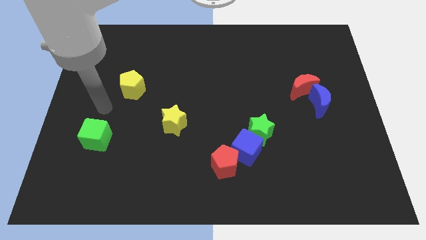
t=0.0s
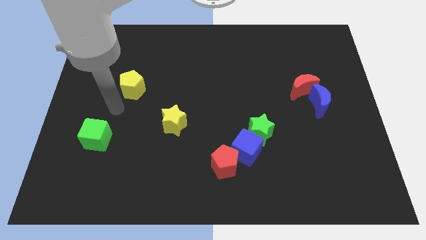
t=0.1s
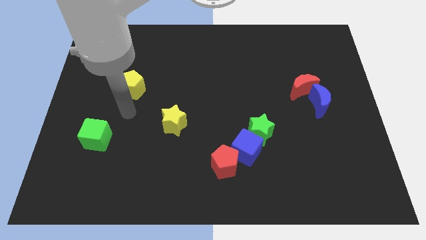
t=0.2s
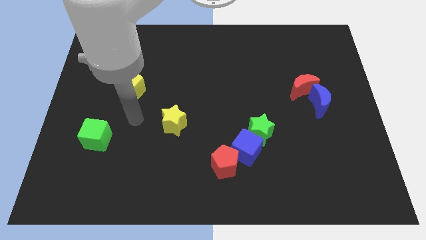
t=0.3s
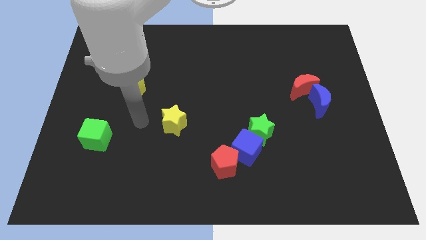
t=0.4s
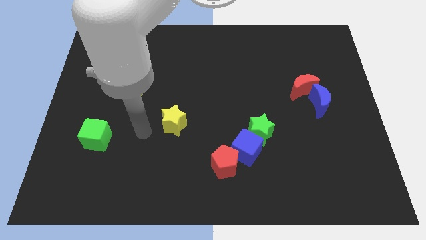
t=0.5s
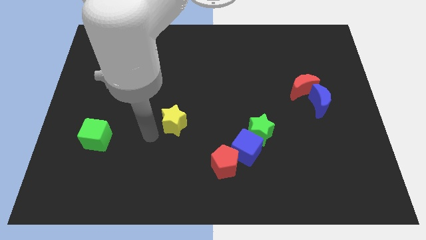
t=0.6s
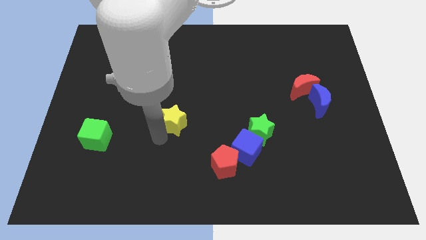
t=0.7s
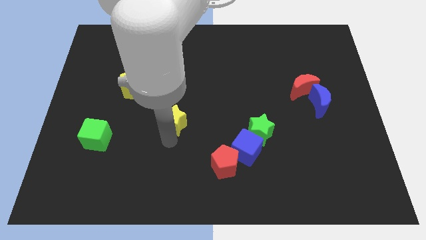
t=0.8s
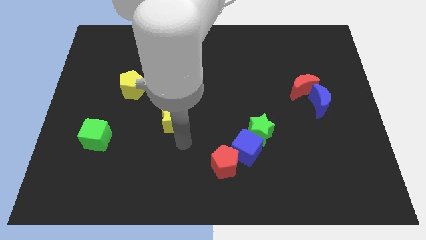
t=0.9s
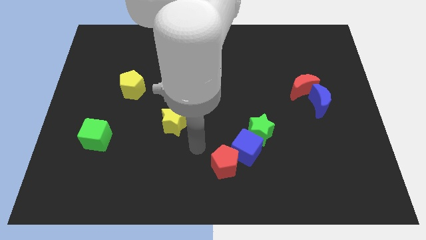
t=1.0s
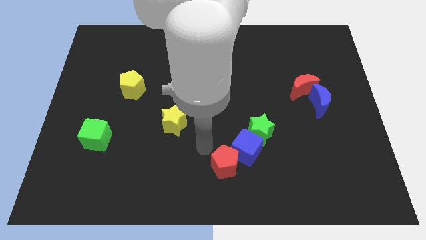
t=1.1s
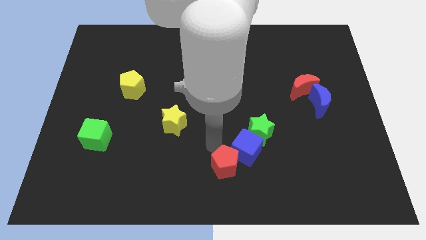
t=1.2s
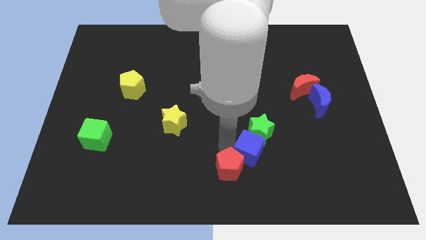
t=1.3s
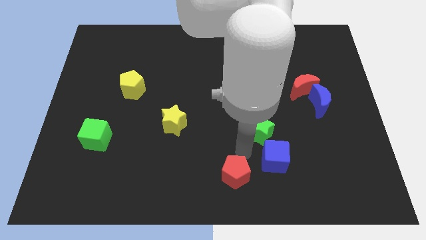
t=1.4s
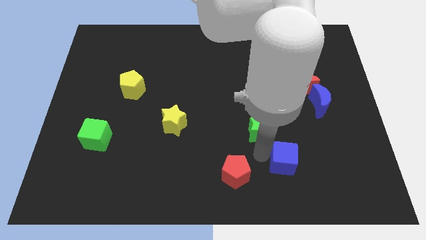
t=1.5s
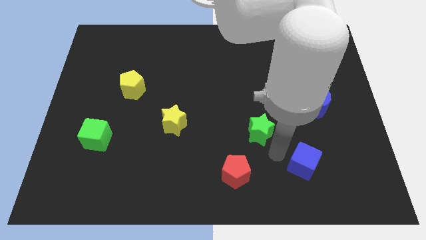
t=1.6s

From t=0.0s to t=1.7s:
separate the green star from the blue cube

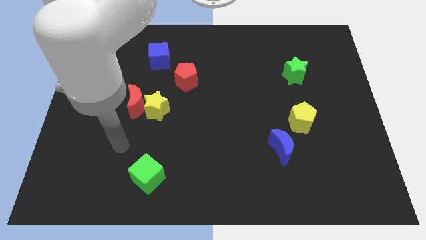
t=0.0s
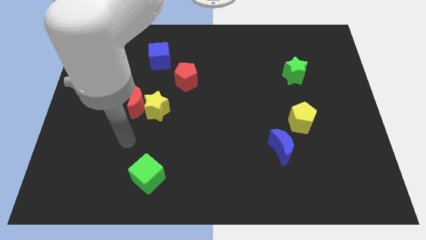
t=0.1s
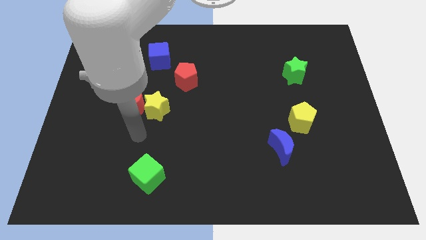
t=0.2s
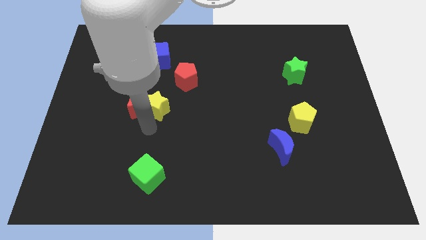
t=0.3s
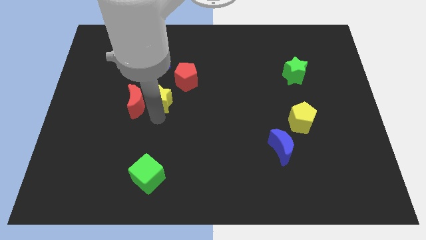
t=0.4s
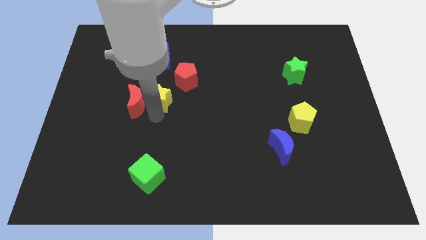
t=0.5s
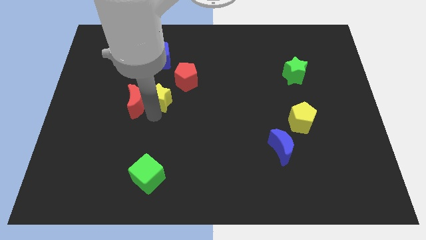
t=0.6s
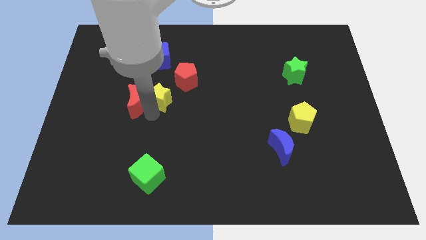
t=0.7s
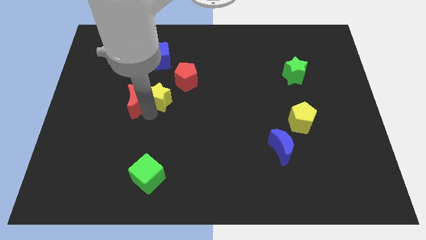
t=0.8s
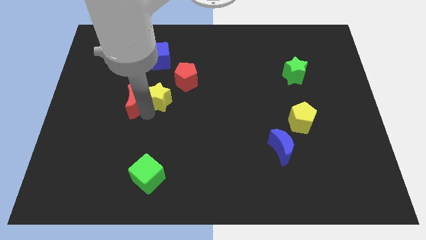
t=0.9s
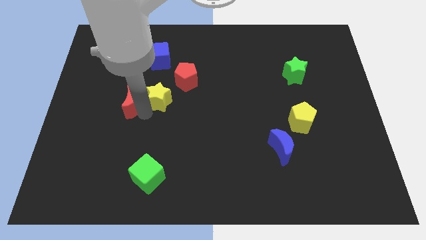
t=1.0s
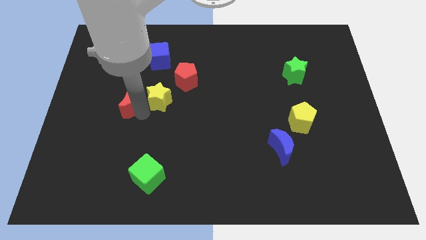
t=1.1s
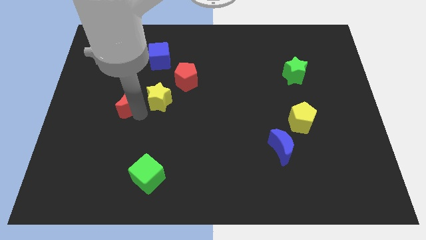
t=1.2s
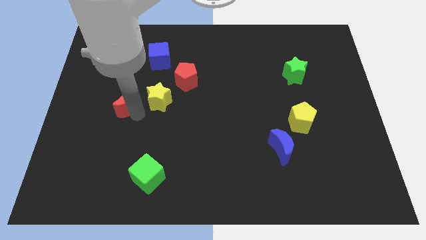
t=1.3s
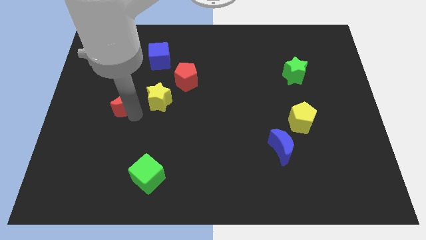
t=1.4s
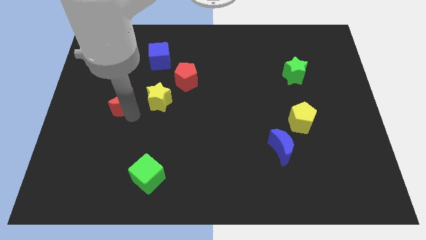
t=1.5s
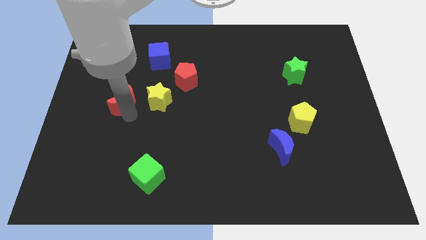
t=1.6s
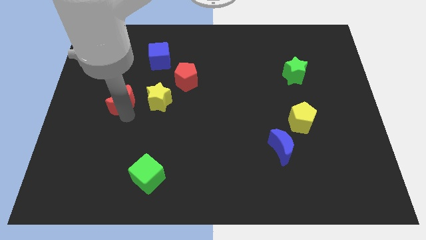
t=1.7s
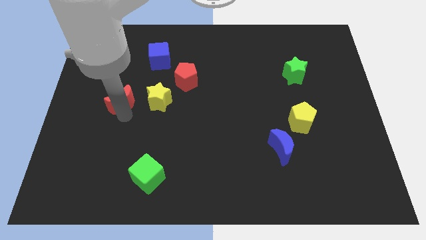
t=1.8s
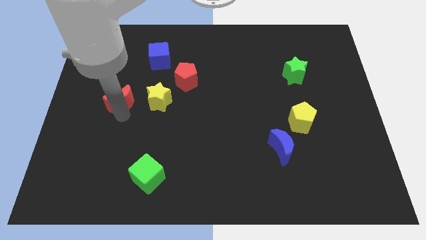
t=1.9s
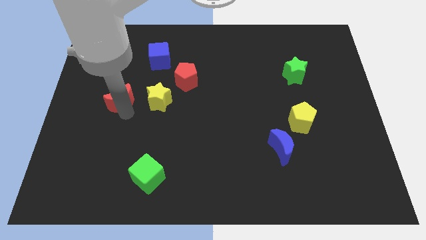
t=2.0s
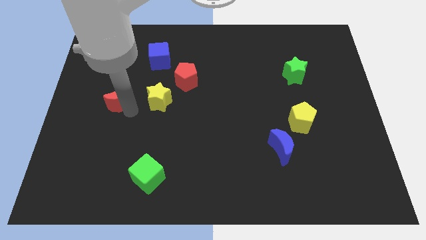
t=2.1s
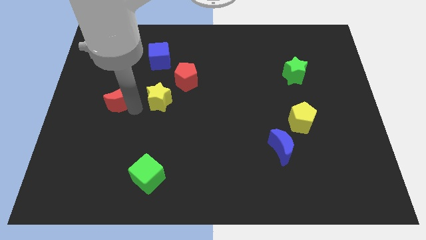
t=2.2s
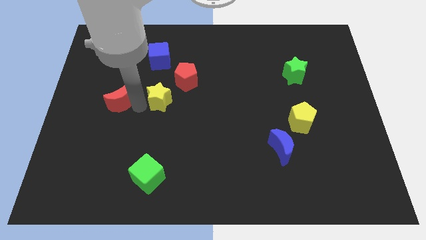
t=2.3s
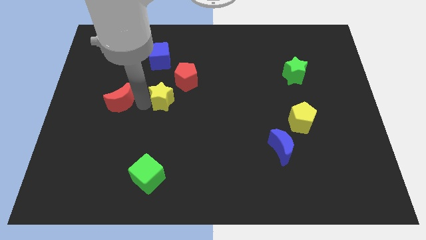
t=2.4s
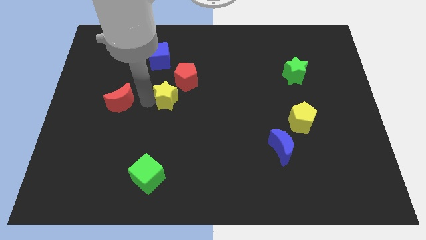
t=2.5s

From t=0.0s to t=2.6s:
separate the red moon from the yellow star

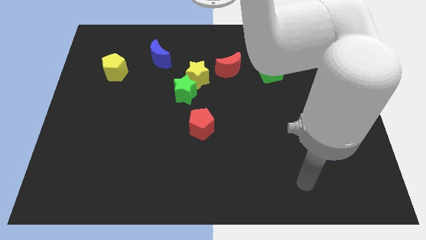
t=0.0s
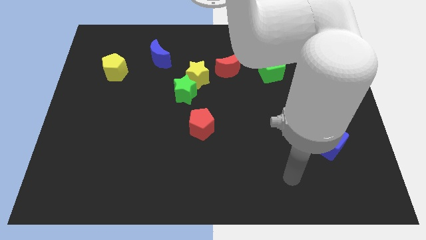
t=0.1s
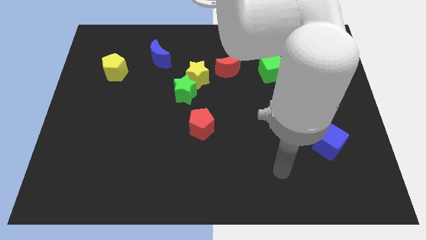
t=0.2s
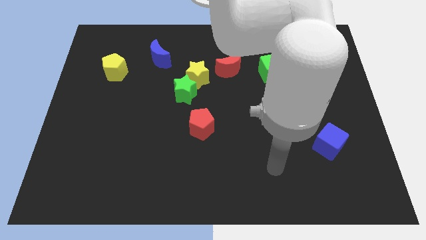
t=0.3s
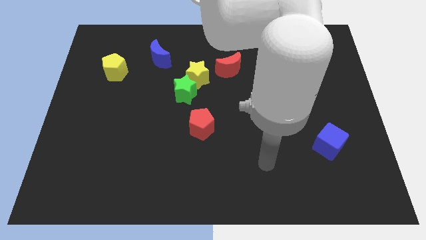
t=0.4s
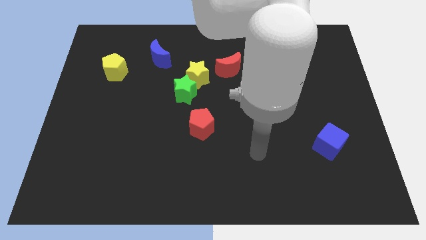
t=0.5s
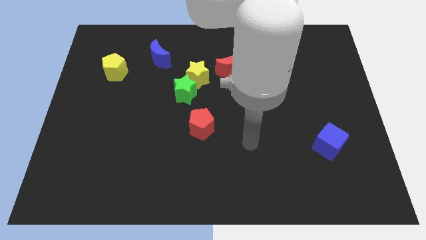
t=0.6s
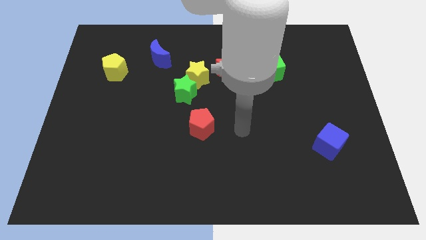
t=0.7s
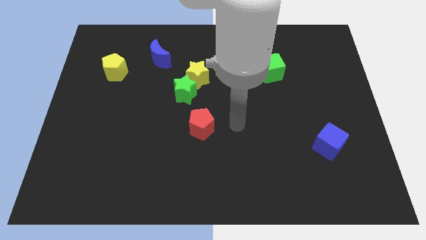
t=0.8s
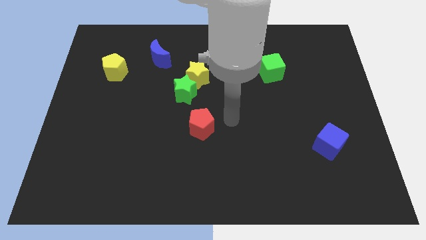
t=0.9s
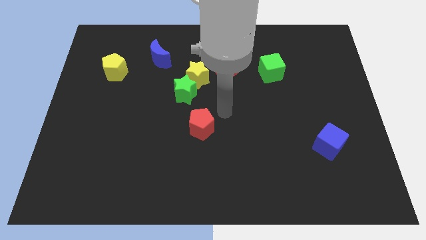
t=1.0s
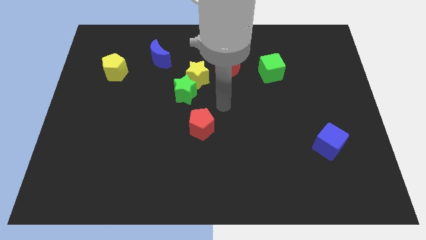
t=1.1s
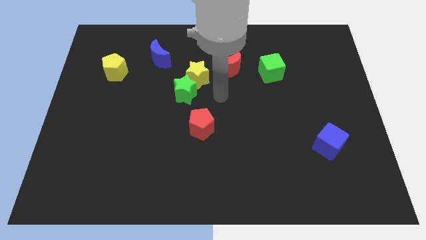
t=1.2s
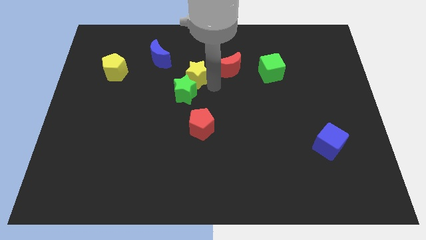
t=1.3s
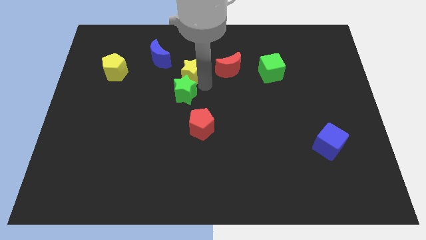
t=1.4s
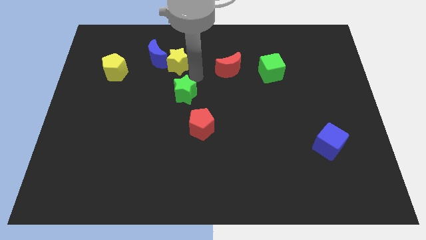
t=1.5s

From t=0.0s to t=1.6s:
pull the green star apart from the yellow star

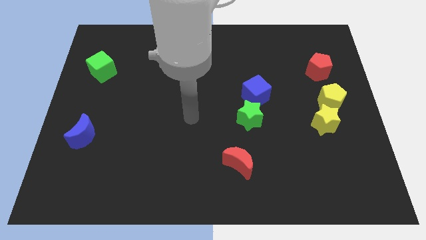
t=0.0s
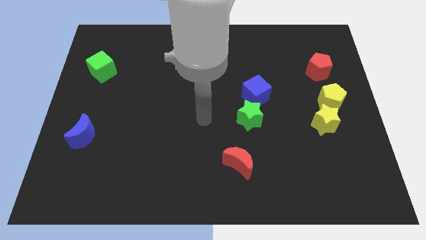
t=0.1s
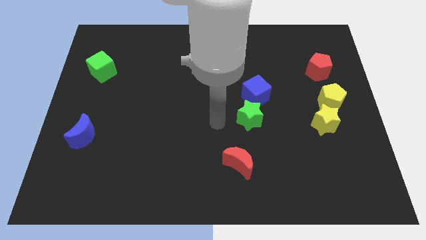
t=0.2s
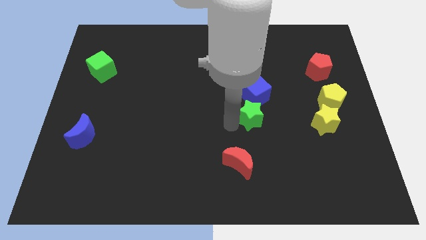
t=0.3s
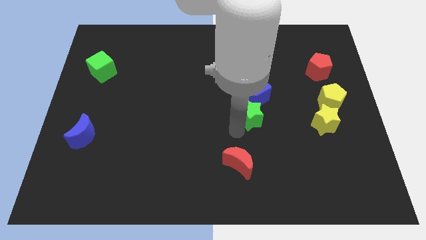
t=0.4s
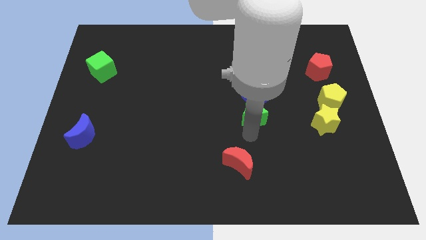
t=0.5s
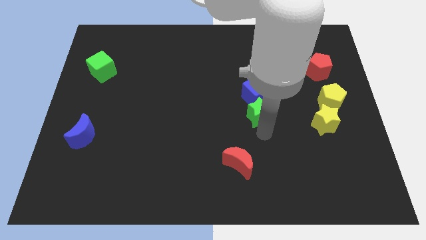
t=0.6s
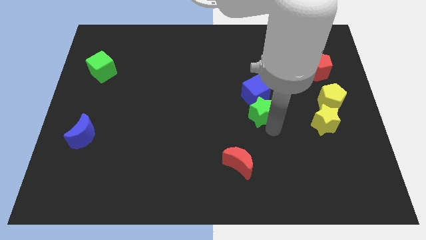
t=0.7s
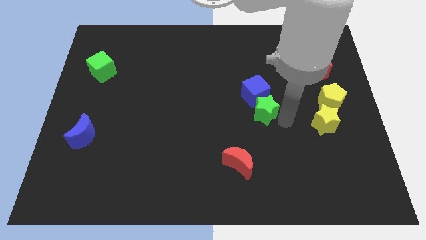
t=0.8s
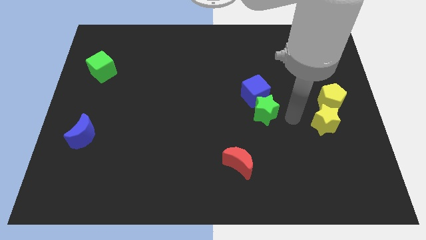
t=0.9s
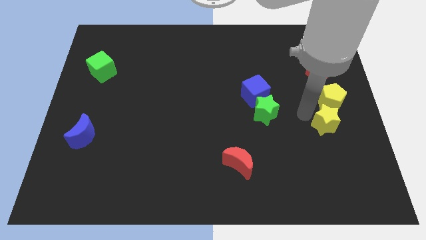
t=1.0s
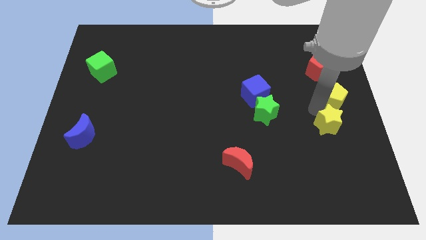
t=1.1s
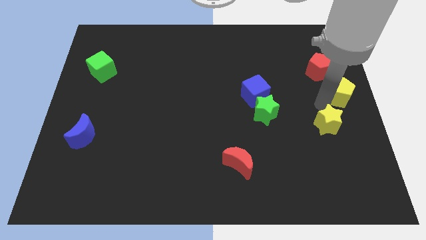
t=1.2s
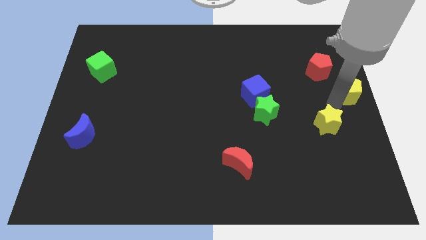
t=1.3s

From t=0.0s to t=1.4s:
pull the yellow star apart from the yellow pentagon

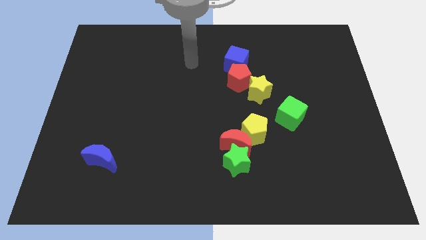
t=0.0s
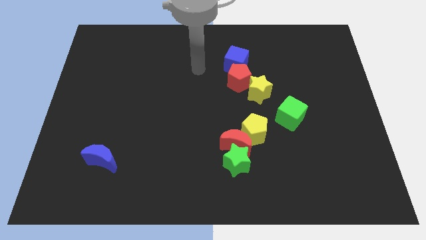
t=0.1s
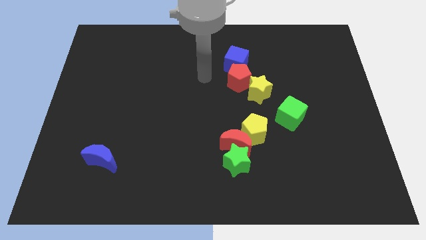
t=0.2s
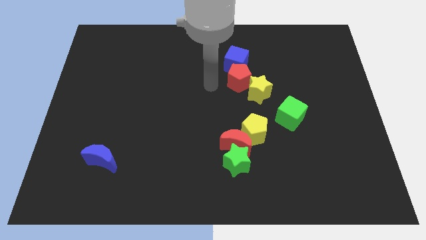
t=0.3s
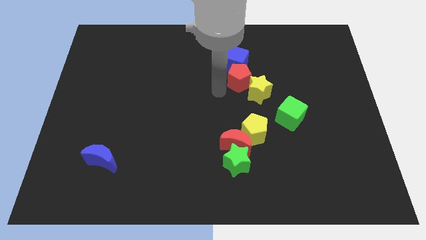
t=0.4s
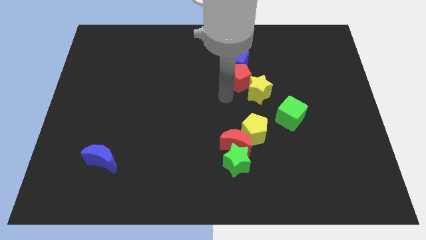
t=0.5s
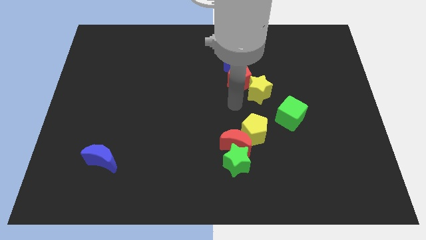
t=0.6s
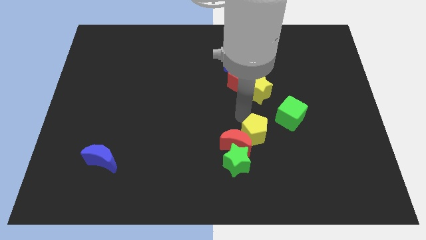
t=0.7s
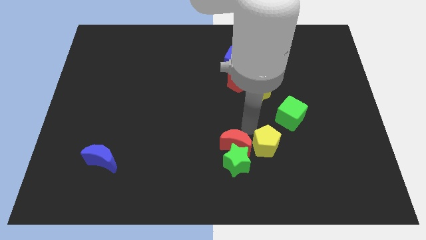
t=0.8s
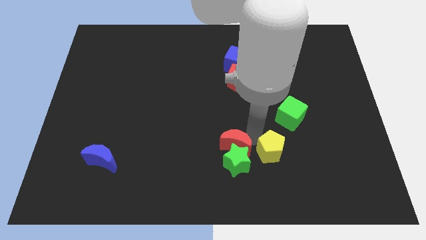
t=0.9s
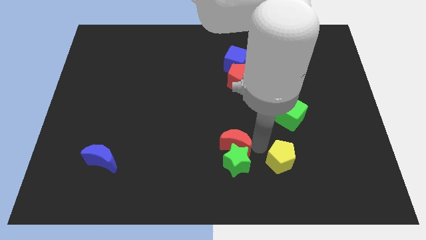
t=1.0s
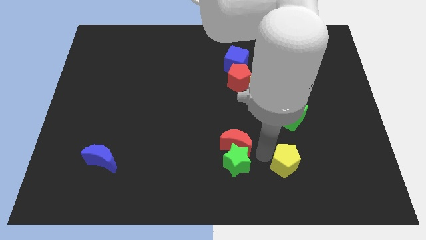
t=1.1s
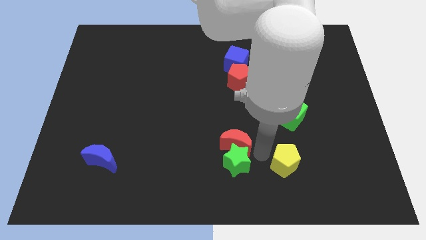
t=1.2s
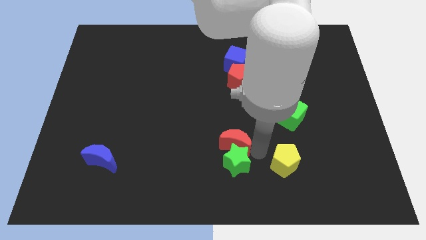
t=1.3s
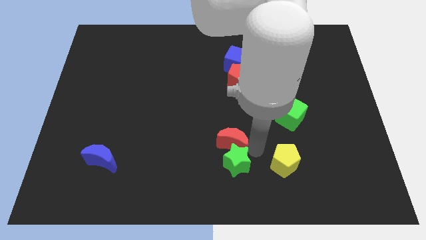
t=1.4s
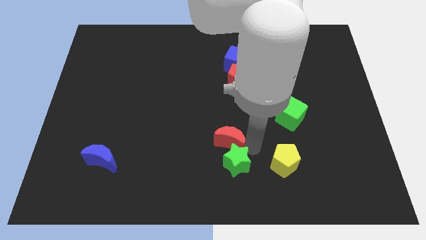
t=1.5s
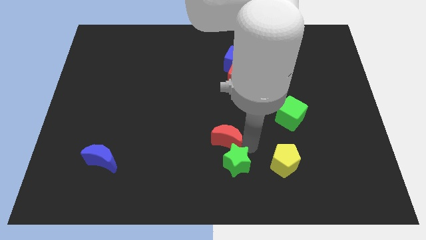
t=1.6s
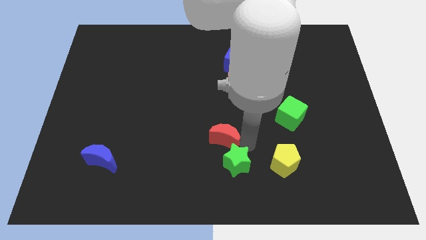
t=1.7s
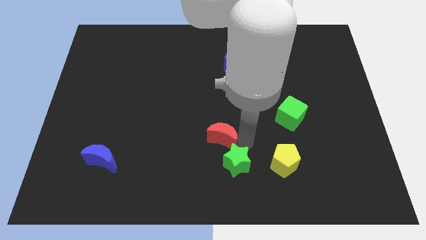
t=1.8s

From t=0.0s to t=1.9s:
pull the red moon apart from the green star and yellow pentagon
